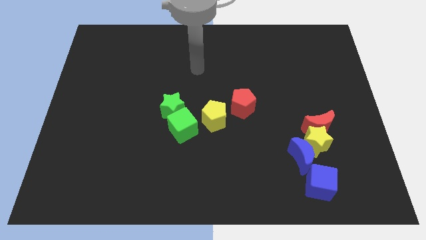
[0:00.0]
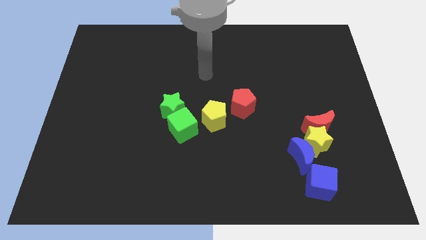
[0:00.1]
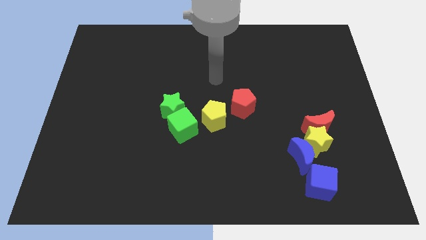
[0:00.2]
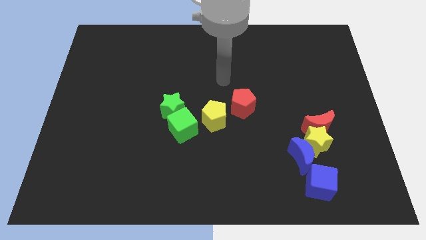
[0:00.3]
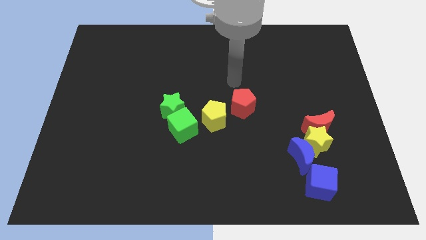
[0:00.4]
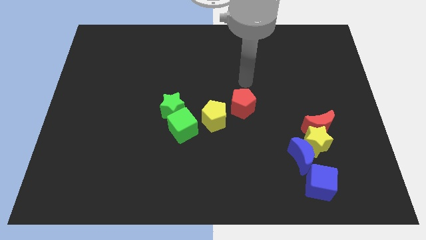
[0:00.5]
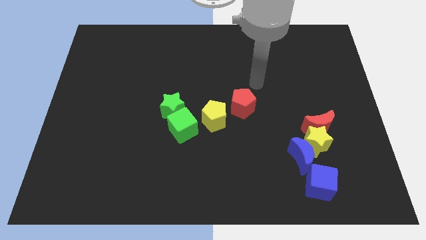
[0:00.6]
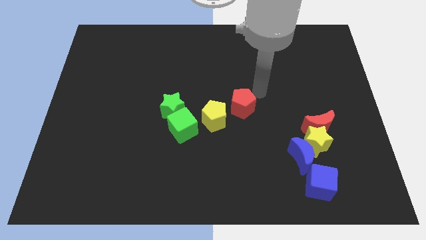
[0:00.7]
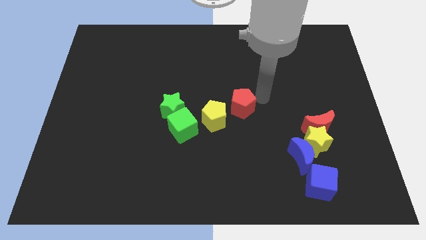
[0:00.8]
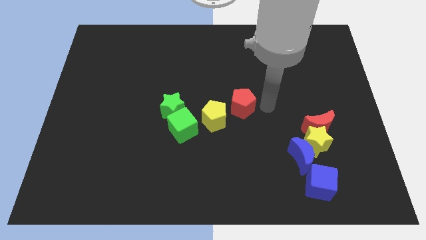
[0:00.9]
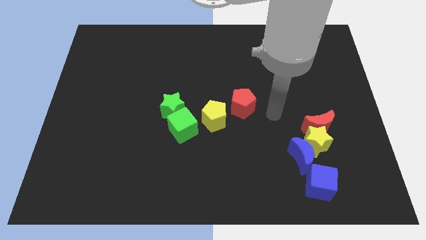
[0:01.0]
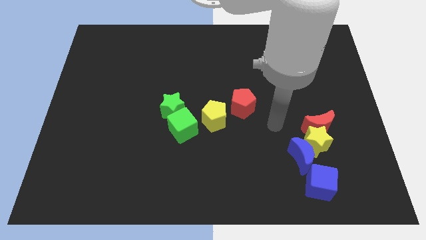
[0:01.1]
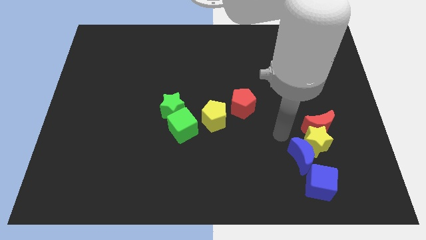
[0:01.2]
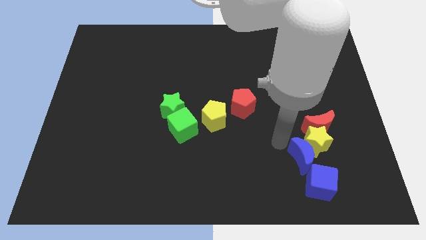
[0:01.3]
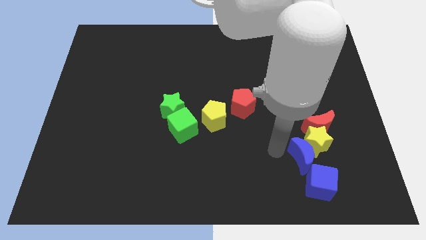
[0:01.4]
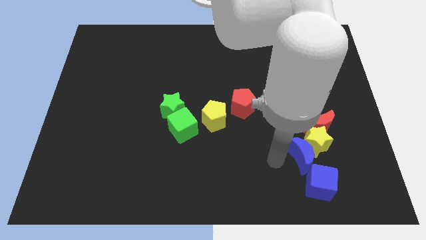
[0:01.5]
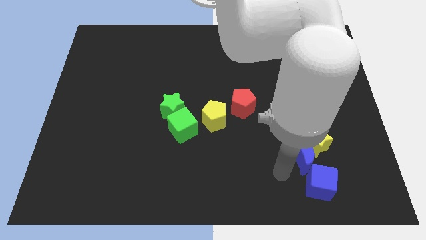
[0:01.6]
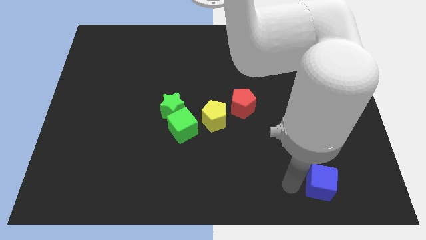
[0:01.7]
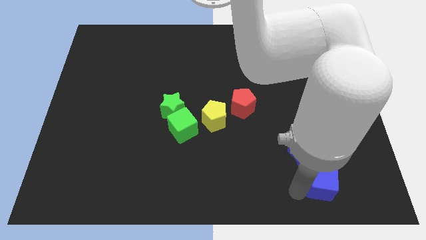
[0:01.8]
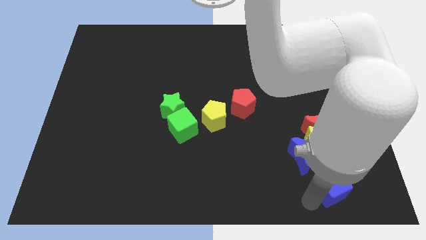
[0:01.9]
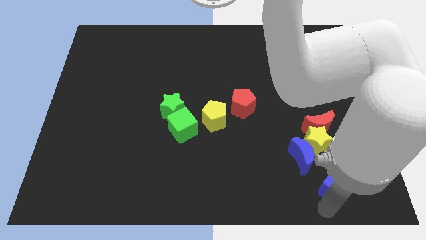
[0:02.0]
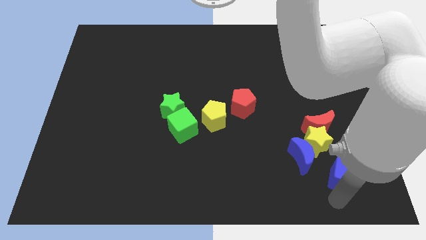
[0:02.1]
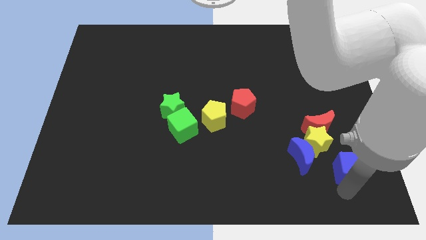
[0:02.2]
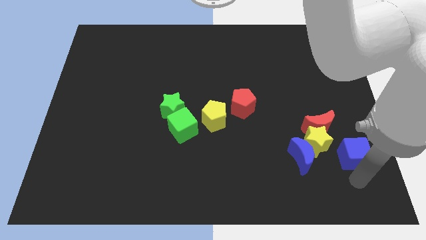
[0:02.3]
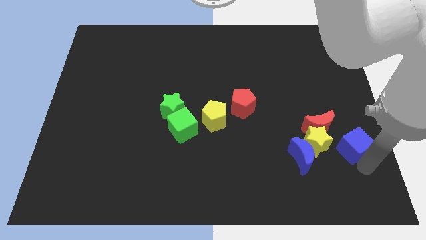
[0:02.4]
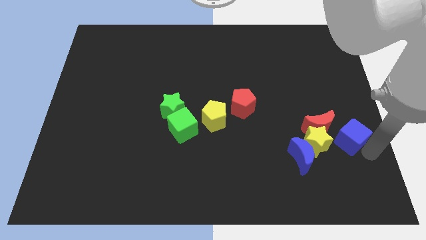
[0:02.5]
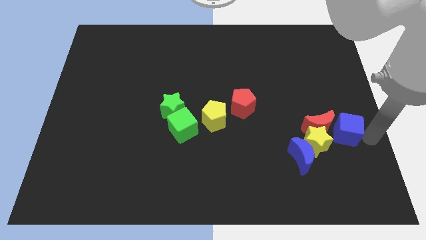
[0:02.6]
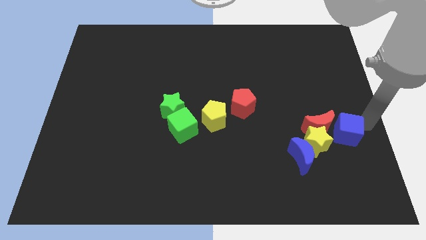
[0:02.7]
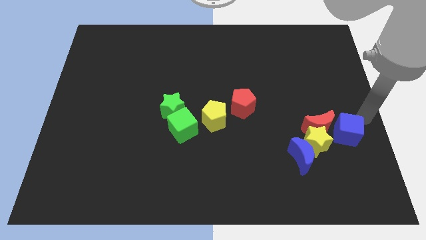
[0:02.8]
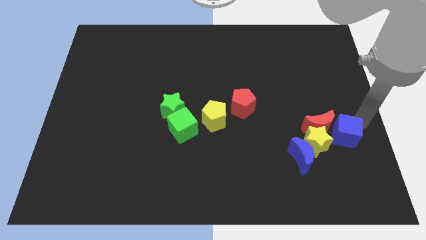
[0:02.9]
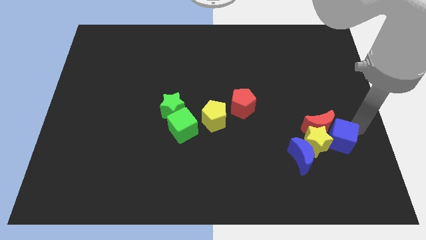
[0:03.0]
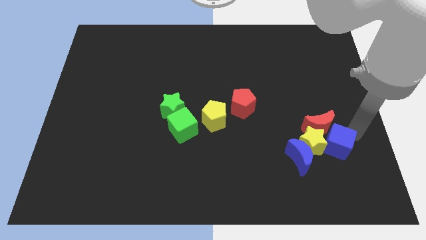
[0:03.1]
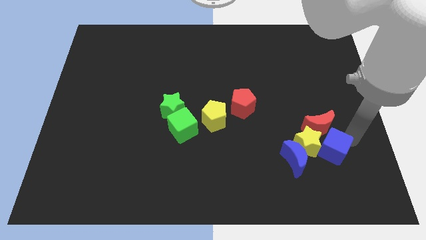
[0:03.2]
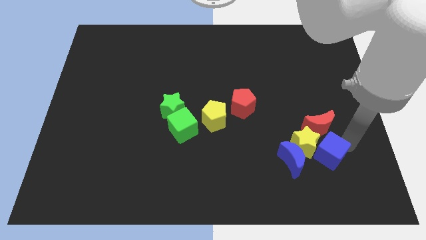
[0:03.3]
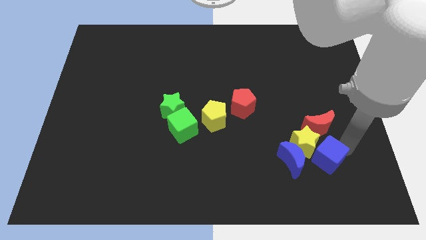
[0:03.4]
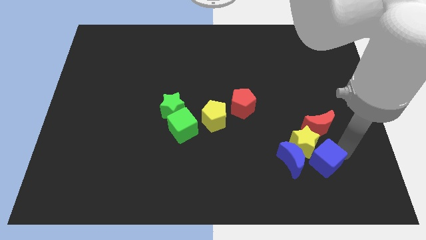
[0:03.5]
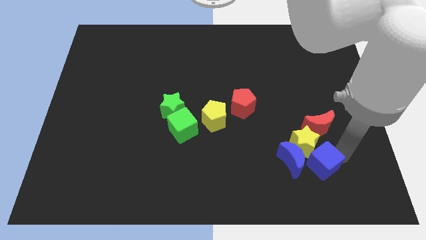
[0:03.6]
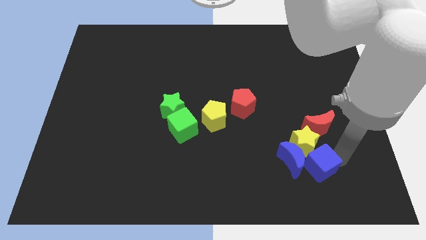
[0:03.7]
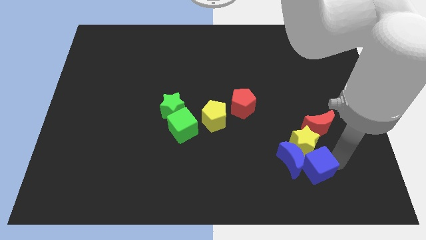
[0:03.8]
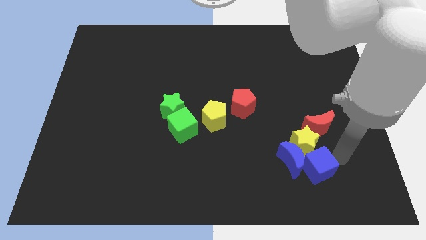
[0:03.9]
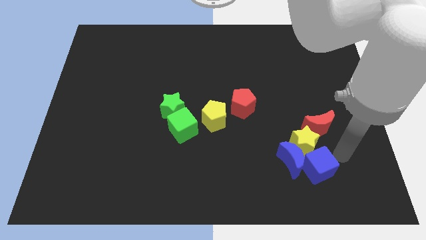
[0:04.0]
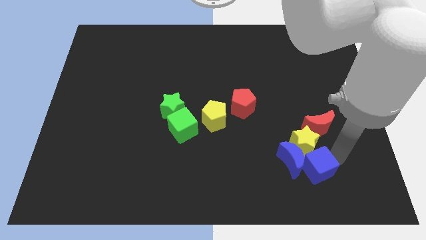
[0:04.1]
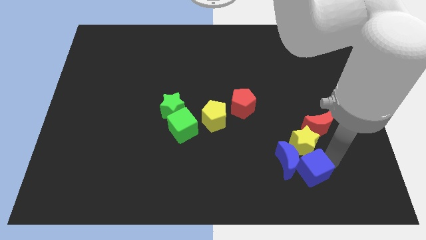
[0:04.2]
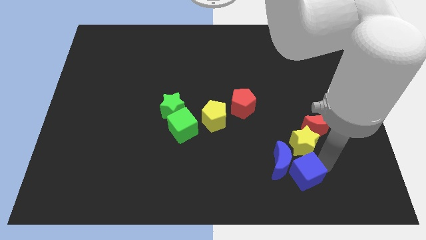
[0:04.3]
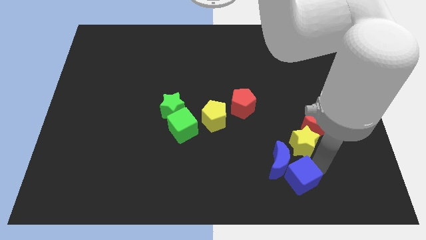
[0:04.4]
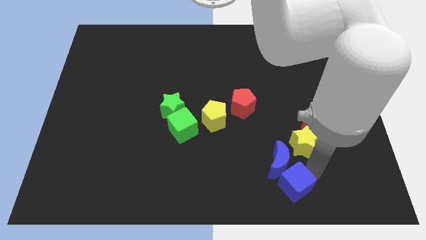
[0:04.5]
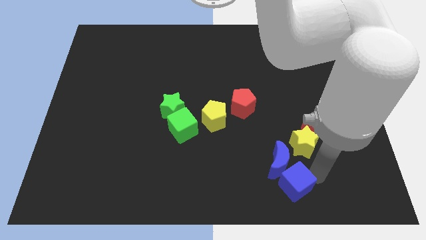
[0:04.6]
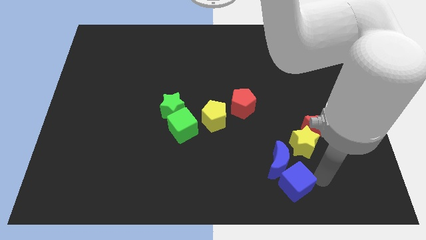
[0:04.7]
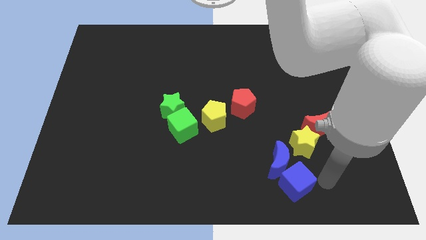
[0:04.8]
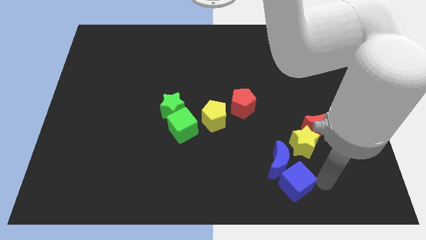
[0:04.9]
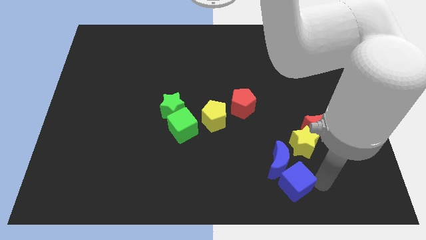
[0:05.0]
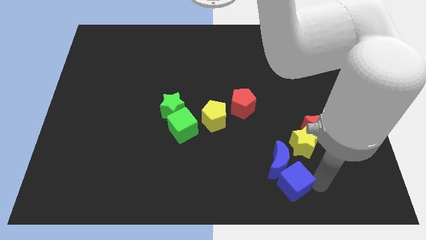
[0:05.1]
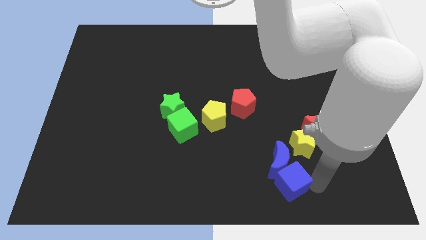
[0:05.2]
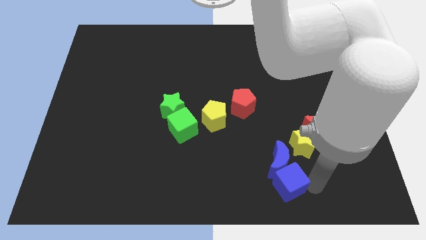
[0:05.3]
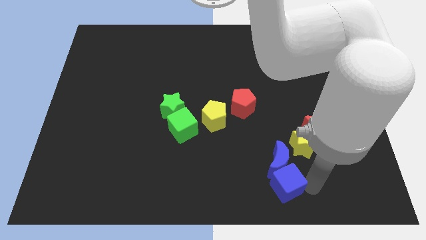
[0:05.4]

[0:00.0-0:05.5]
slightly move the blue cube left

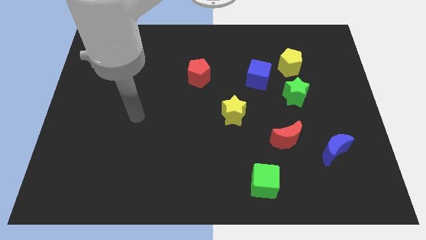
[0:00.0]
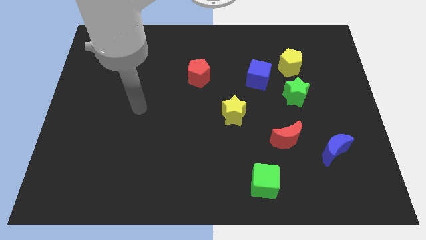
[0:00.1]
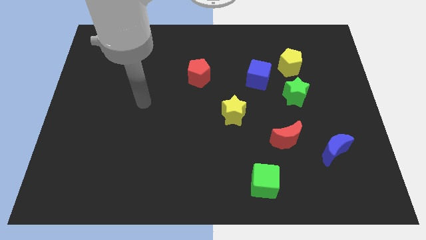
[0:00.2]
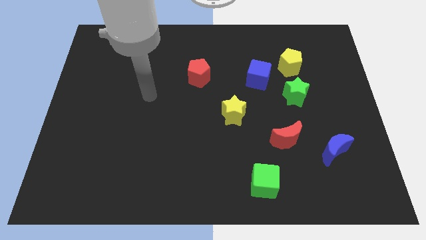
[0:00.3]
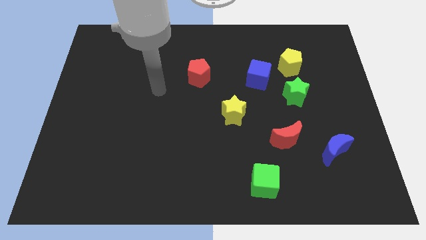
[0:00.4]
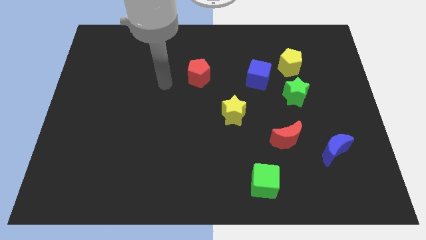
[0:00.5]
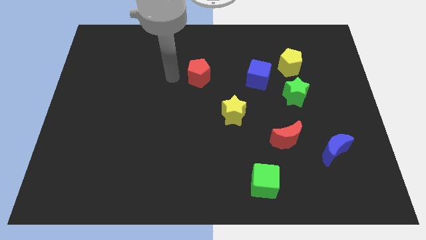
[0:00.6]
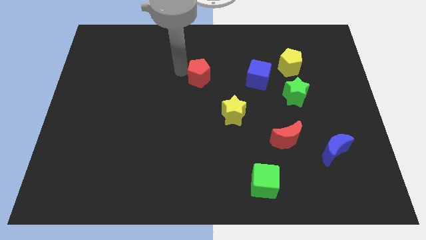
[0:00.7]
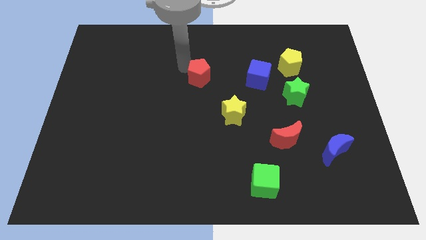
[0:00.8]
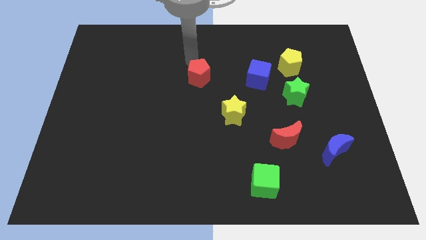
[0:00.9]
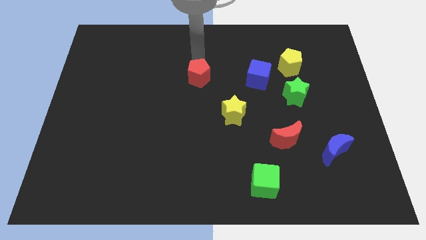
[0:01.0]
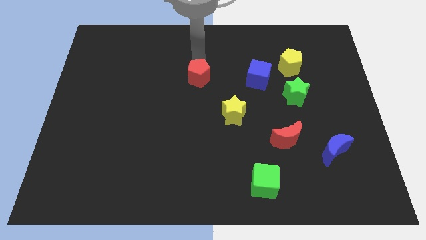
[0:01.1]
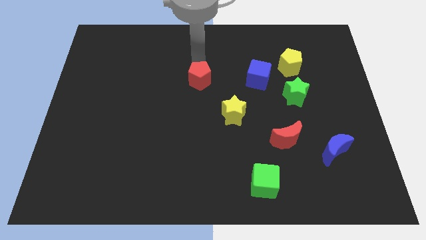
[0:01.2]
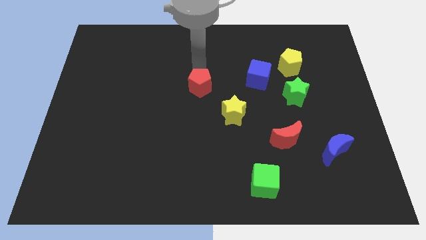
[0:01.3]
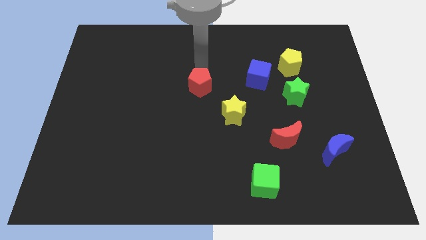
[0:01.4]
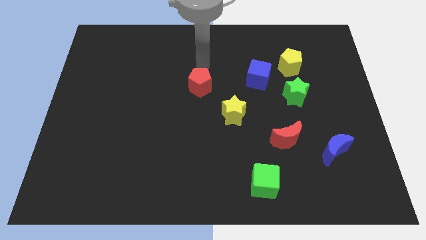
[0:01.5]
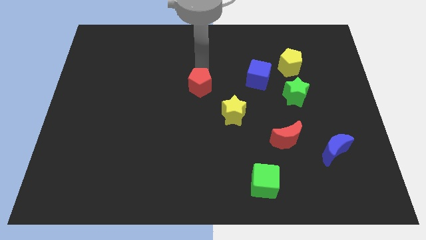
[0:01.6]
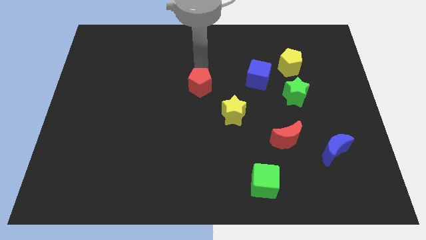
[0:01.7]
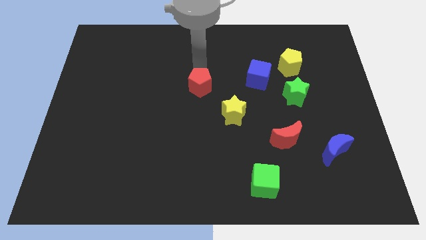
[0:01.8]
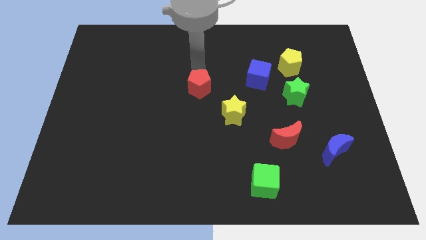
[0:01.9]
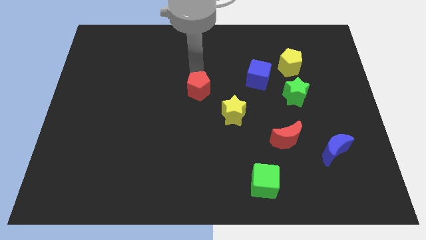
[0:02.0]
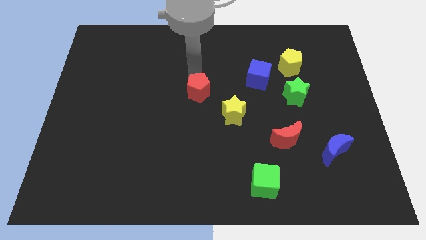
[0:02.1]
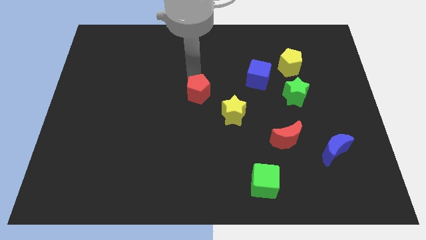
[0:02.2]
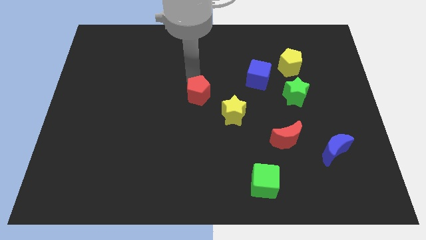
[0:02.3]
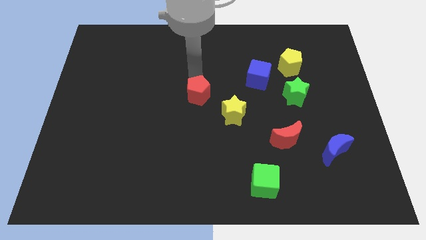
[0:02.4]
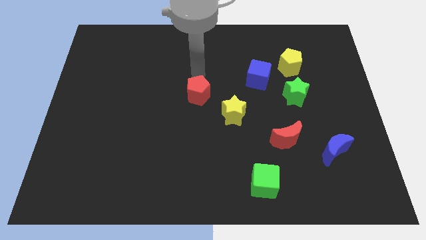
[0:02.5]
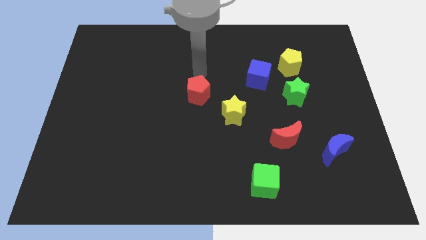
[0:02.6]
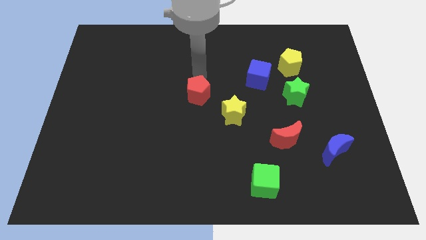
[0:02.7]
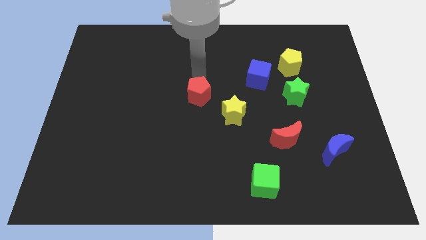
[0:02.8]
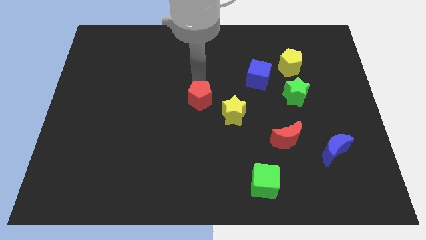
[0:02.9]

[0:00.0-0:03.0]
slightly move the red pentagon down
